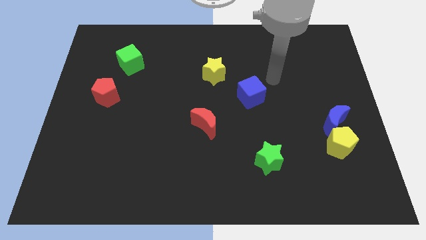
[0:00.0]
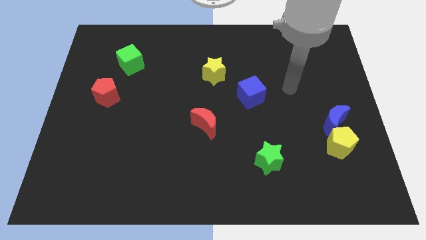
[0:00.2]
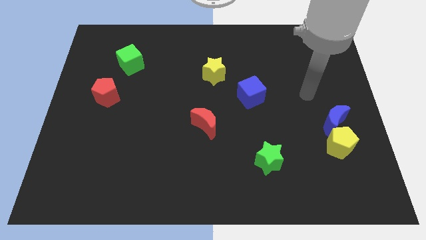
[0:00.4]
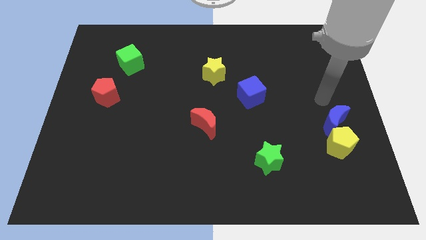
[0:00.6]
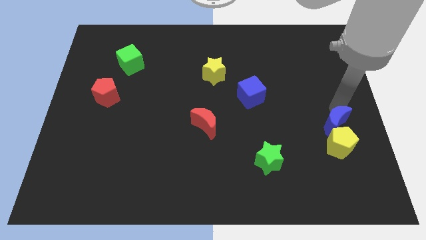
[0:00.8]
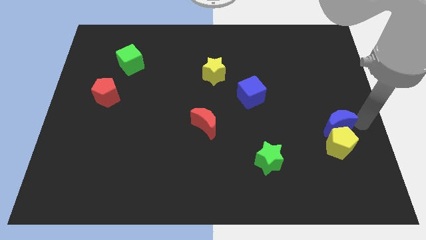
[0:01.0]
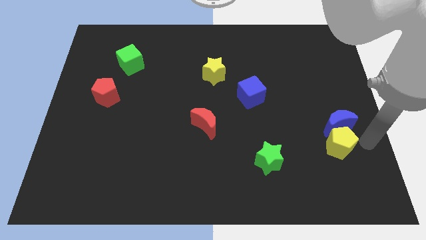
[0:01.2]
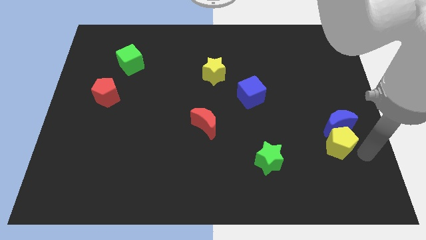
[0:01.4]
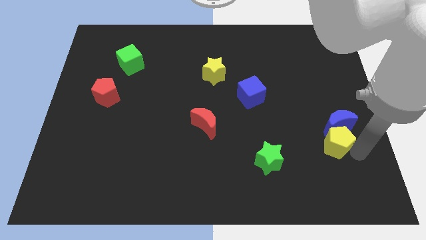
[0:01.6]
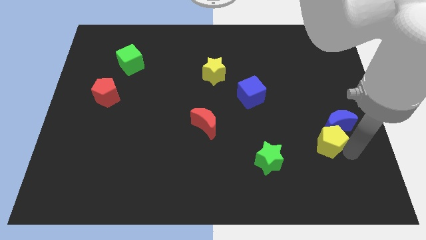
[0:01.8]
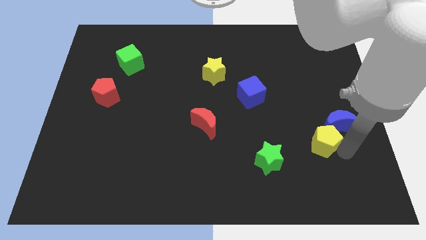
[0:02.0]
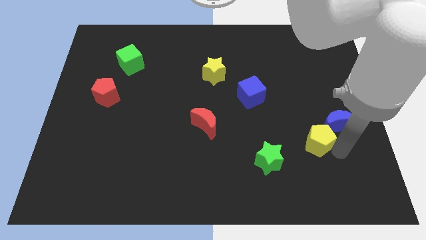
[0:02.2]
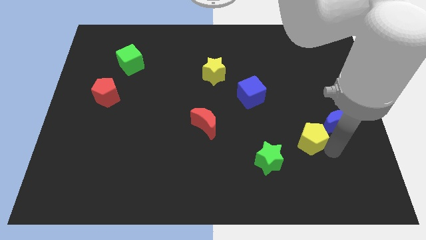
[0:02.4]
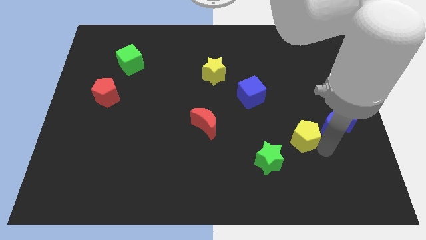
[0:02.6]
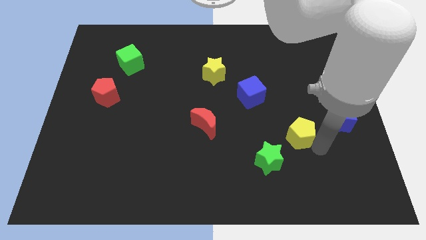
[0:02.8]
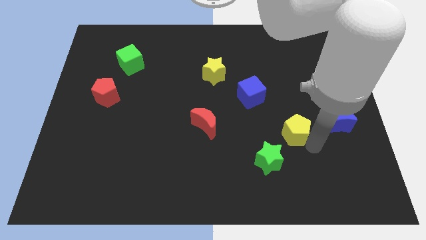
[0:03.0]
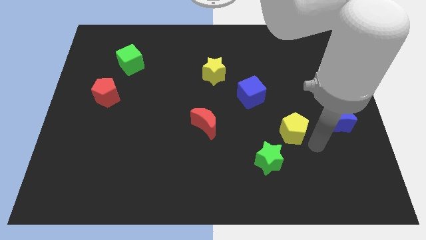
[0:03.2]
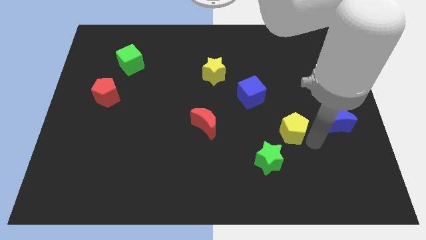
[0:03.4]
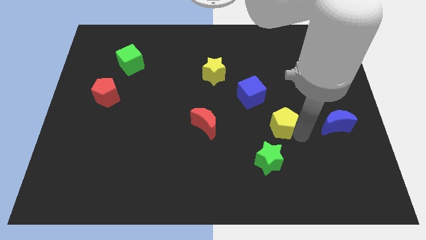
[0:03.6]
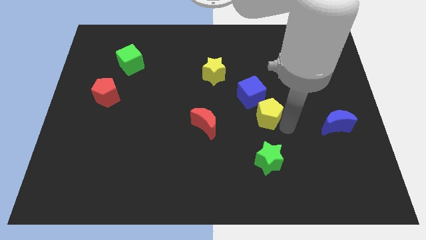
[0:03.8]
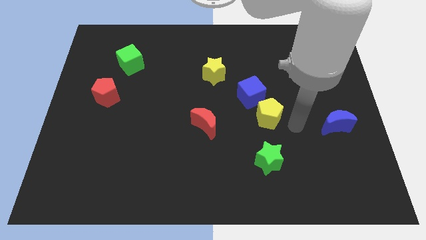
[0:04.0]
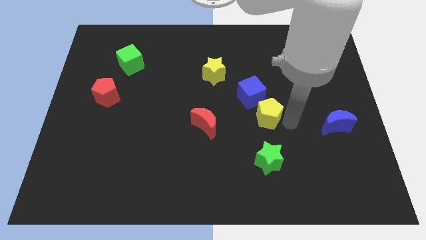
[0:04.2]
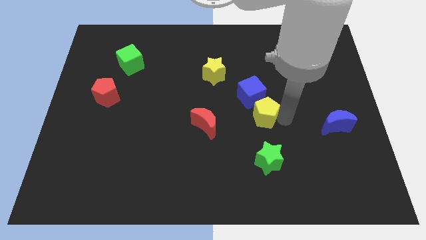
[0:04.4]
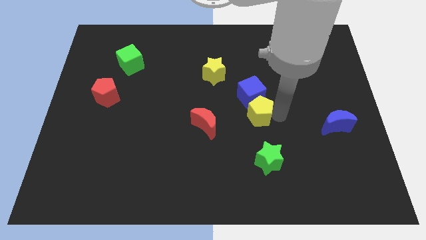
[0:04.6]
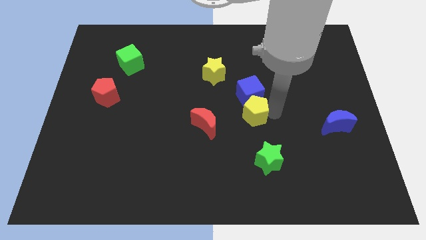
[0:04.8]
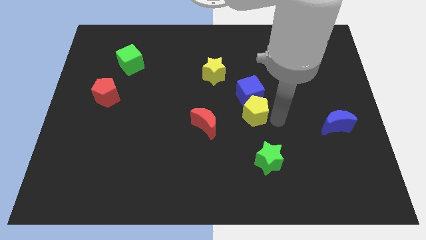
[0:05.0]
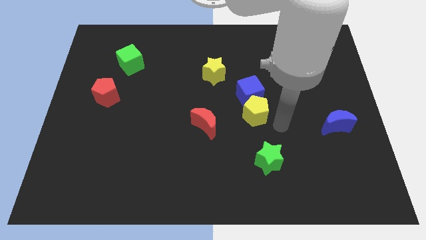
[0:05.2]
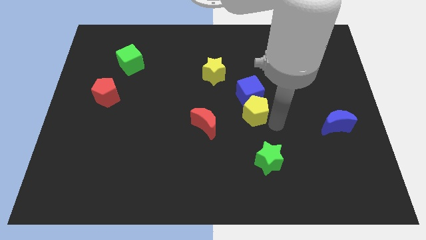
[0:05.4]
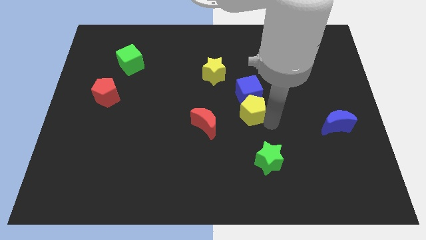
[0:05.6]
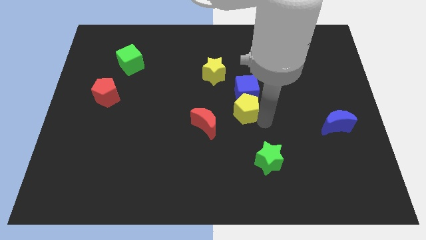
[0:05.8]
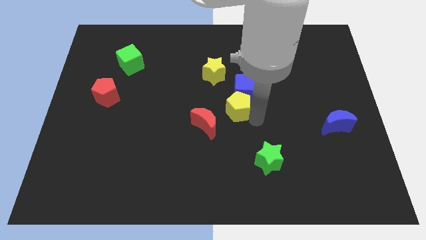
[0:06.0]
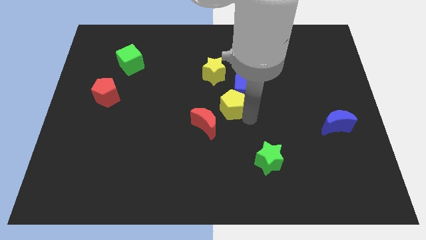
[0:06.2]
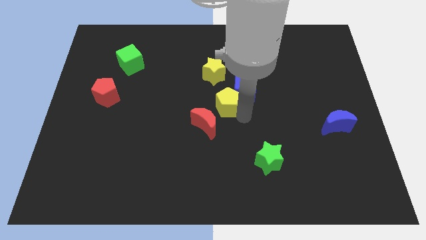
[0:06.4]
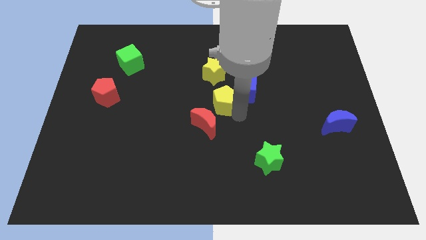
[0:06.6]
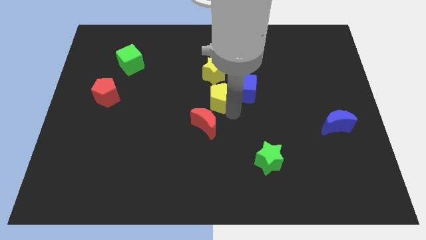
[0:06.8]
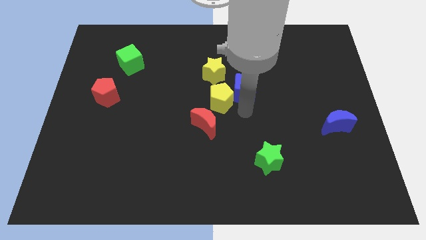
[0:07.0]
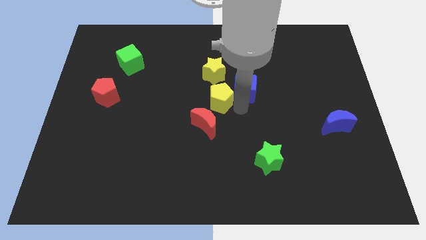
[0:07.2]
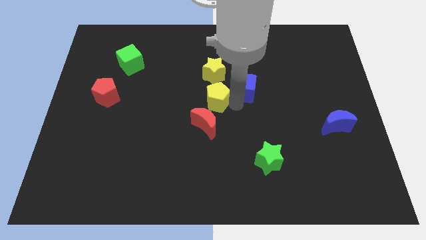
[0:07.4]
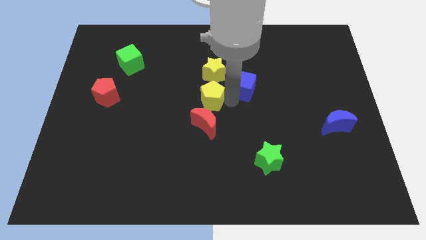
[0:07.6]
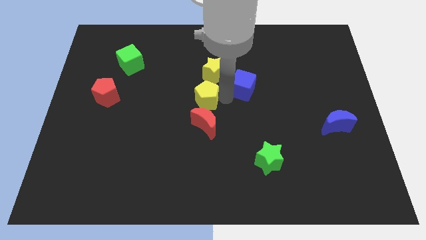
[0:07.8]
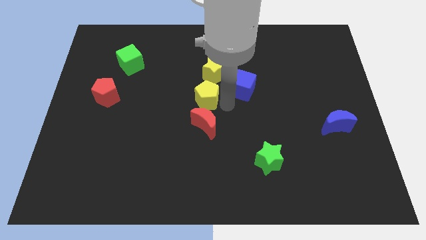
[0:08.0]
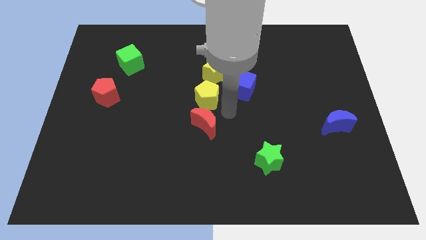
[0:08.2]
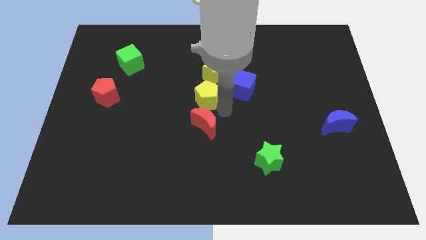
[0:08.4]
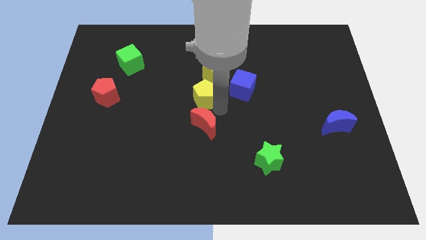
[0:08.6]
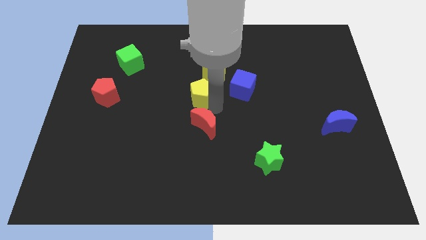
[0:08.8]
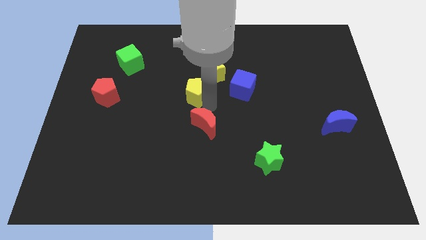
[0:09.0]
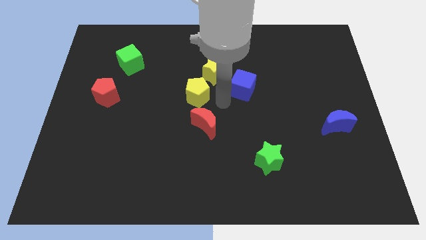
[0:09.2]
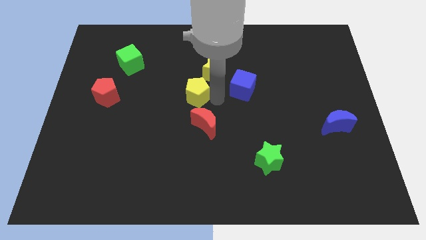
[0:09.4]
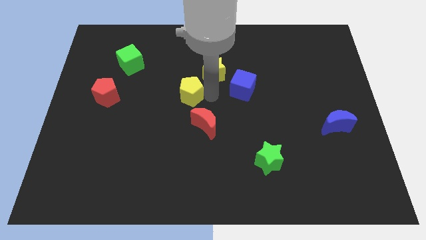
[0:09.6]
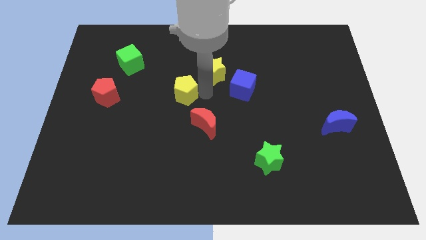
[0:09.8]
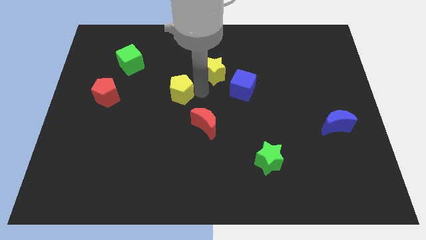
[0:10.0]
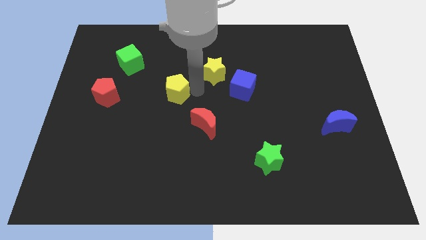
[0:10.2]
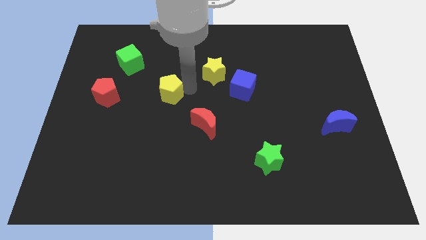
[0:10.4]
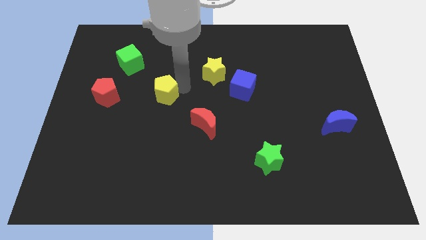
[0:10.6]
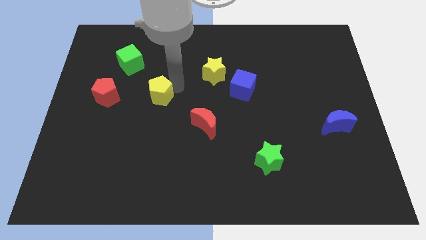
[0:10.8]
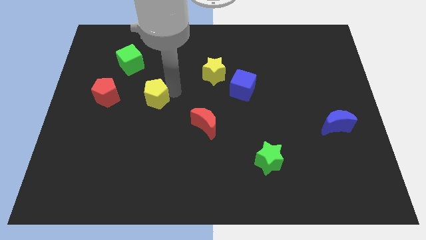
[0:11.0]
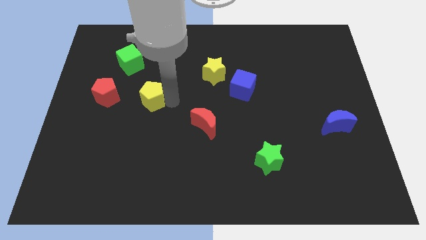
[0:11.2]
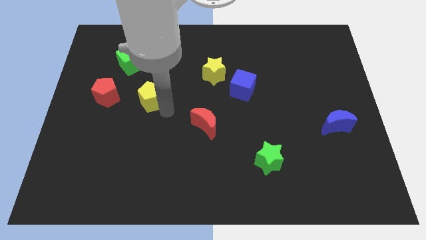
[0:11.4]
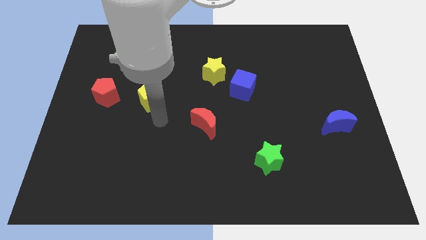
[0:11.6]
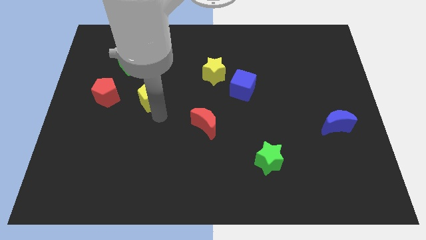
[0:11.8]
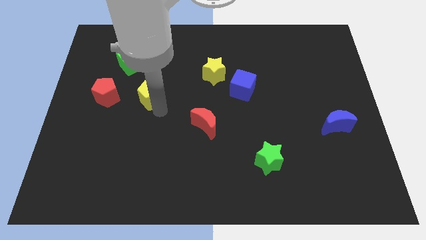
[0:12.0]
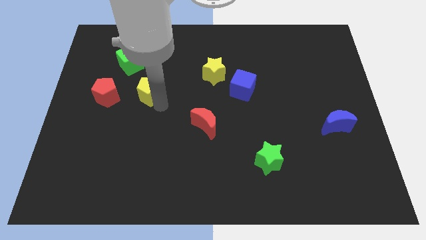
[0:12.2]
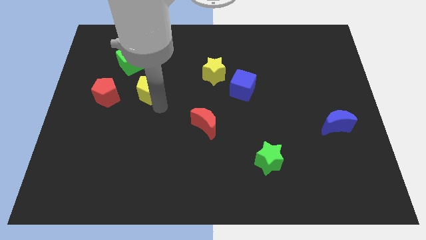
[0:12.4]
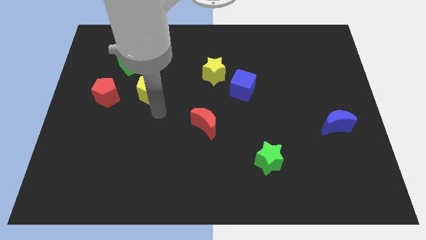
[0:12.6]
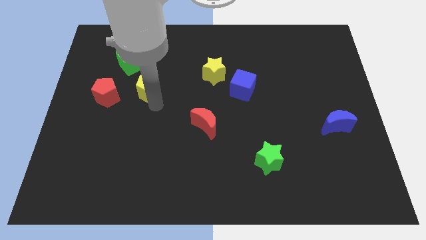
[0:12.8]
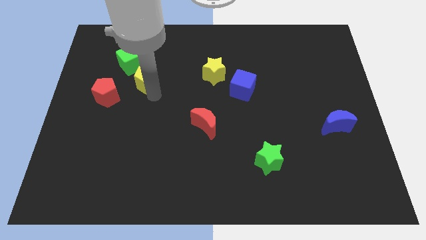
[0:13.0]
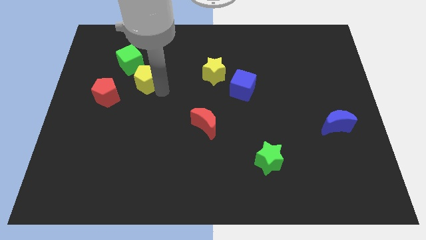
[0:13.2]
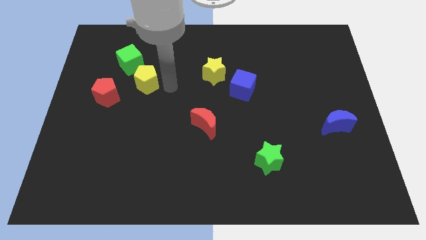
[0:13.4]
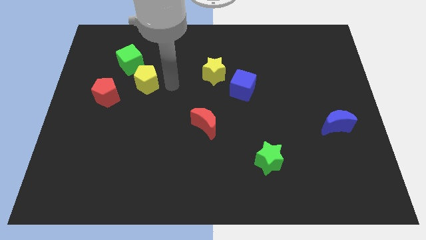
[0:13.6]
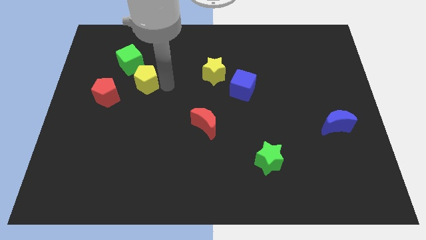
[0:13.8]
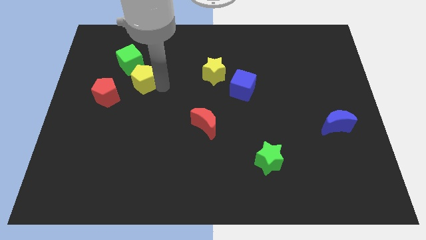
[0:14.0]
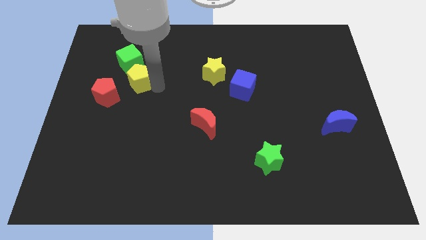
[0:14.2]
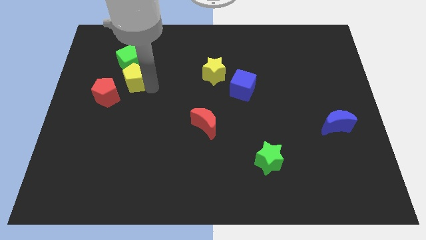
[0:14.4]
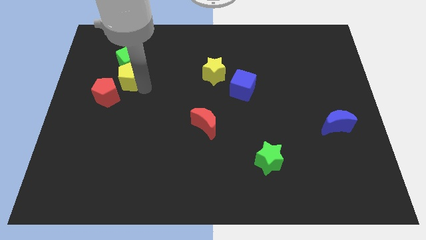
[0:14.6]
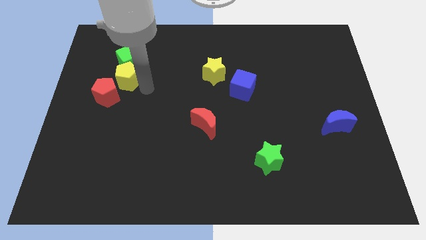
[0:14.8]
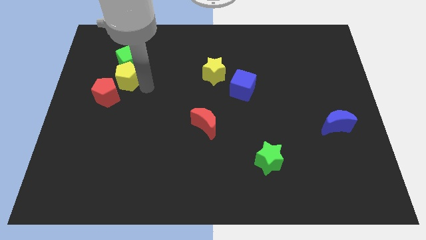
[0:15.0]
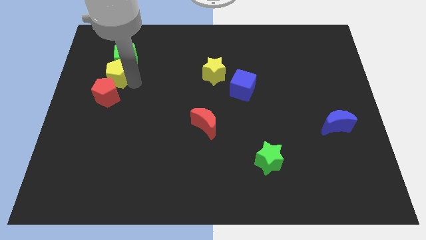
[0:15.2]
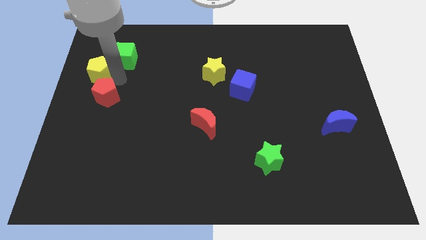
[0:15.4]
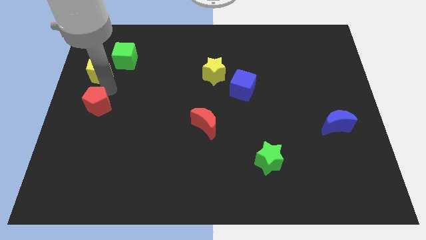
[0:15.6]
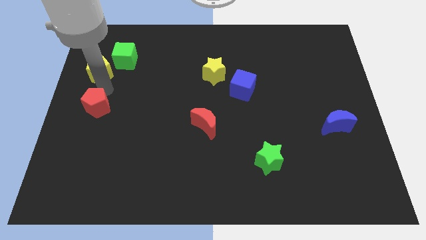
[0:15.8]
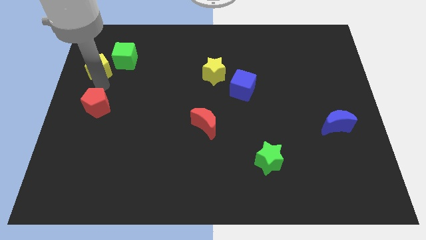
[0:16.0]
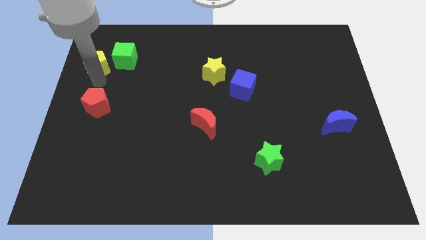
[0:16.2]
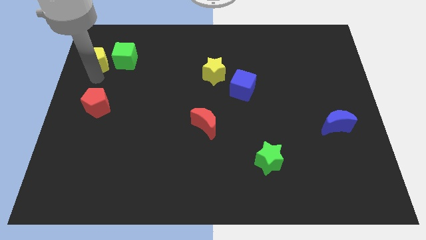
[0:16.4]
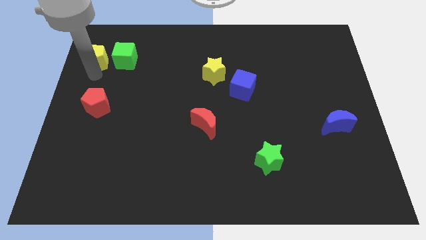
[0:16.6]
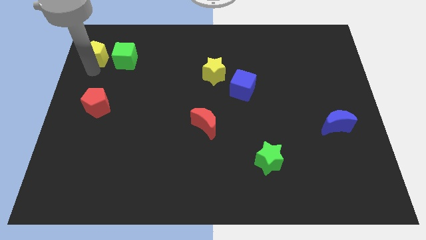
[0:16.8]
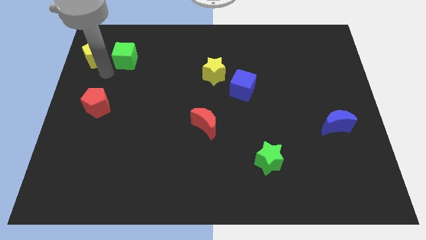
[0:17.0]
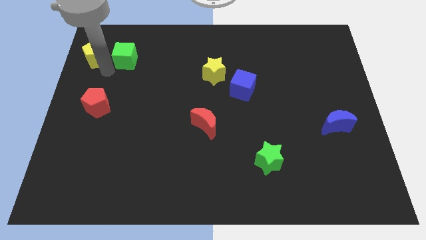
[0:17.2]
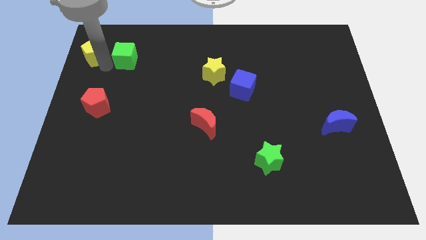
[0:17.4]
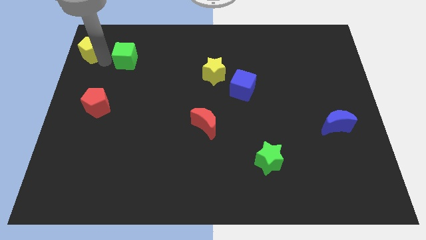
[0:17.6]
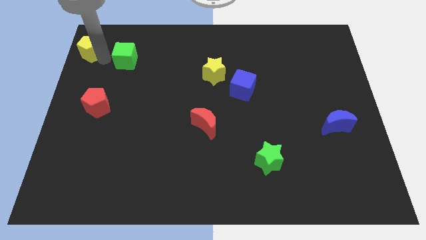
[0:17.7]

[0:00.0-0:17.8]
slide the yellow pentagon to the top left
